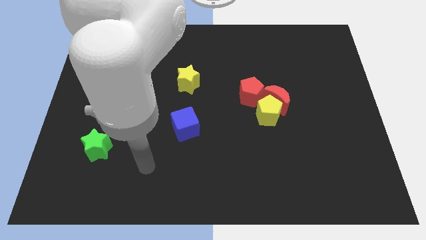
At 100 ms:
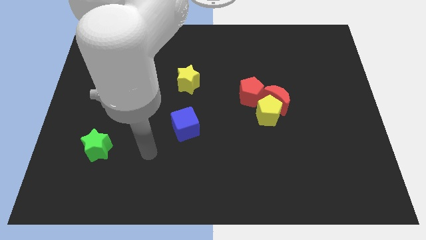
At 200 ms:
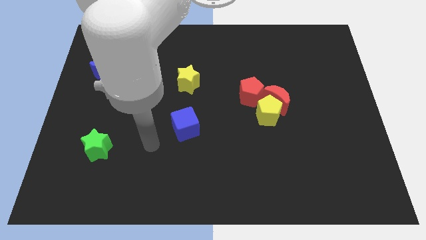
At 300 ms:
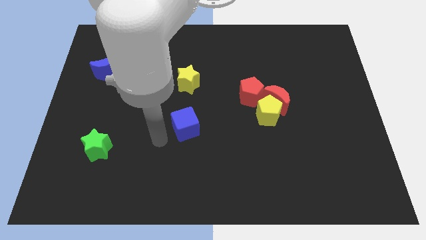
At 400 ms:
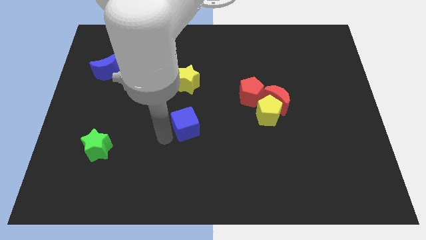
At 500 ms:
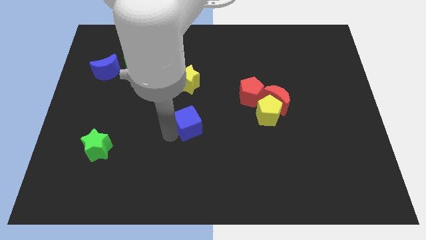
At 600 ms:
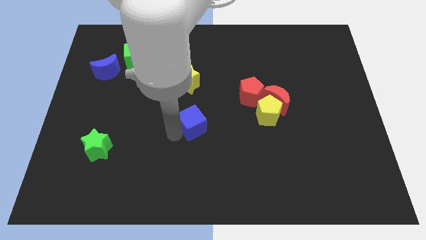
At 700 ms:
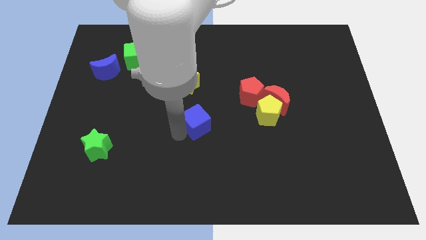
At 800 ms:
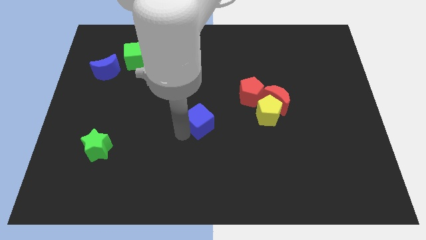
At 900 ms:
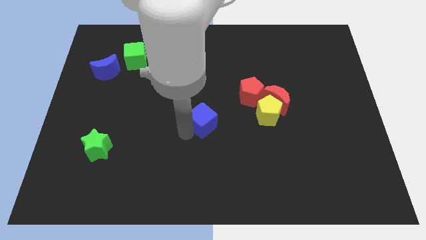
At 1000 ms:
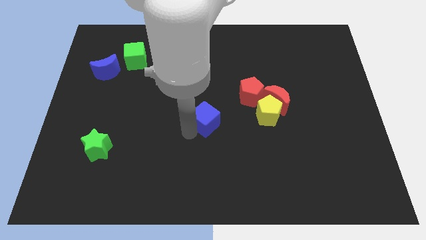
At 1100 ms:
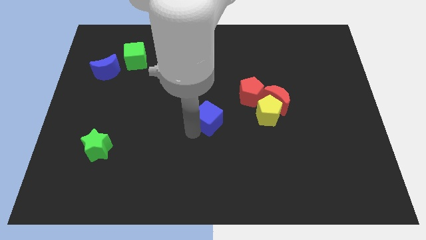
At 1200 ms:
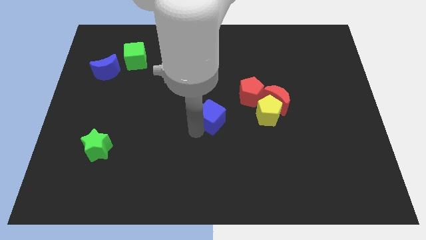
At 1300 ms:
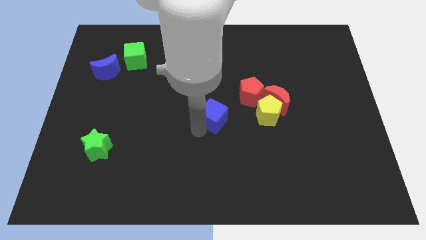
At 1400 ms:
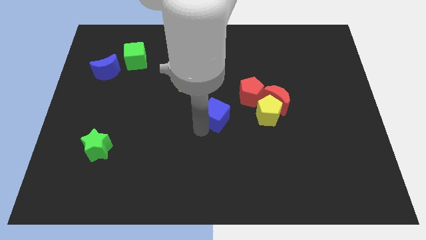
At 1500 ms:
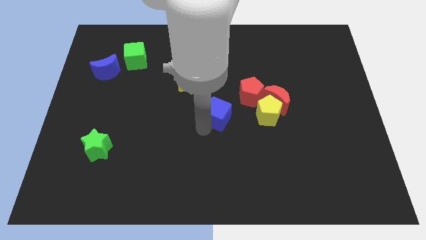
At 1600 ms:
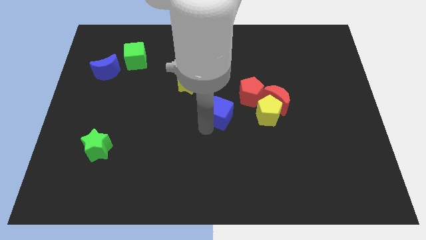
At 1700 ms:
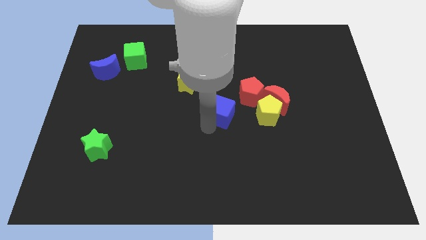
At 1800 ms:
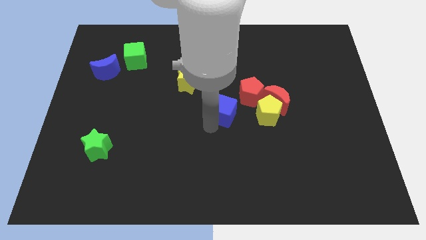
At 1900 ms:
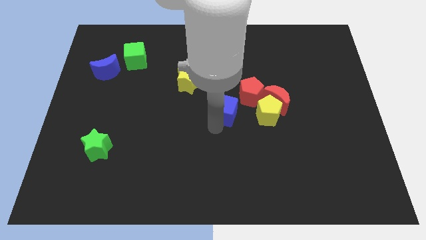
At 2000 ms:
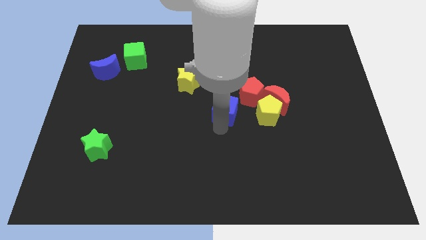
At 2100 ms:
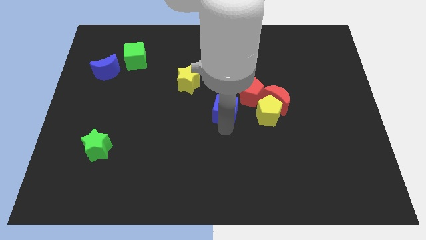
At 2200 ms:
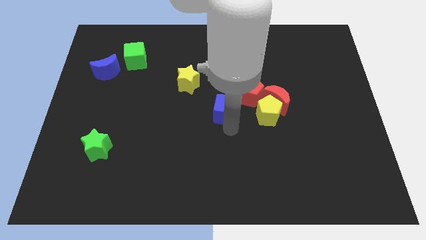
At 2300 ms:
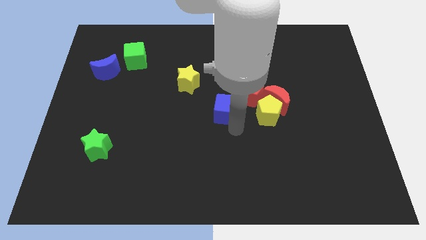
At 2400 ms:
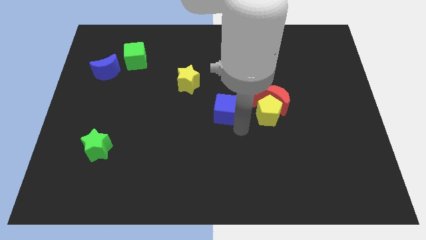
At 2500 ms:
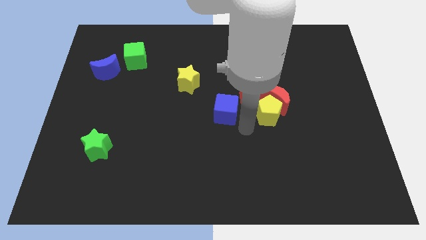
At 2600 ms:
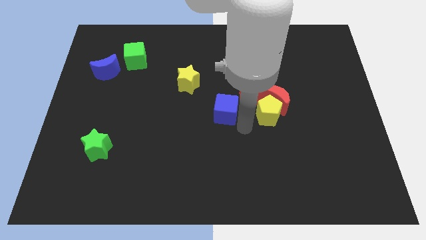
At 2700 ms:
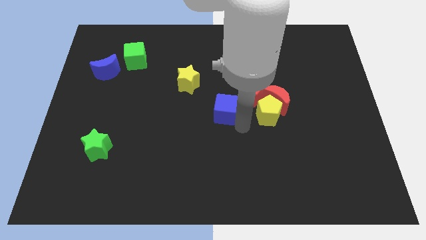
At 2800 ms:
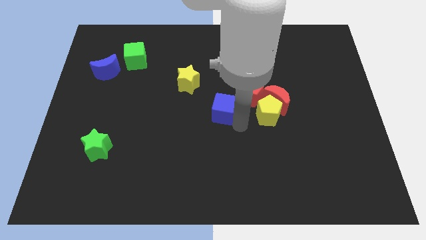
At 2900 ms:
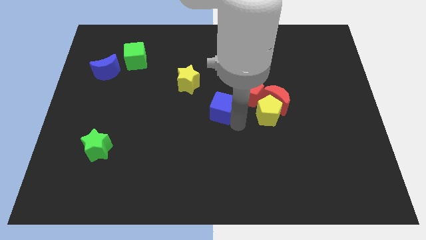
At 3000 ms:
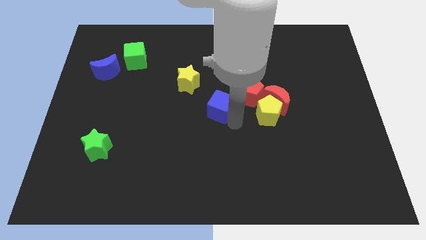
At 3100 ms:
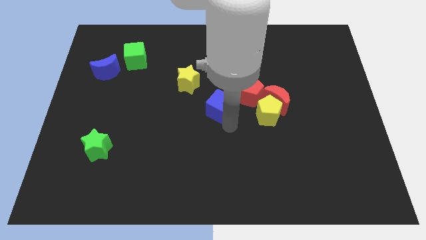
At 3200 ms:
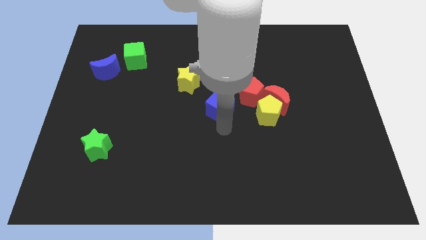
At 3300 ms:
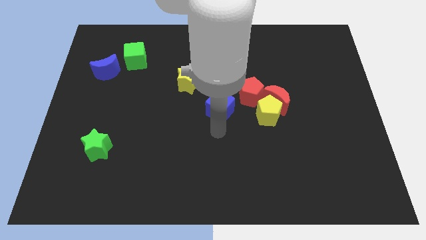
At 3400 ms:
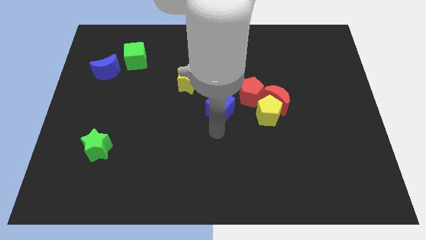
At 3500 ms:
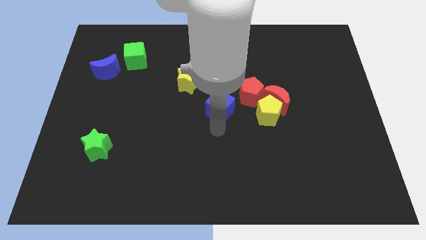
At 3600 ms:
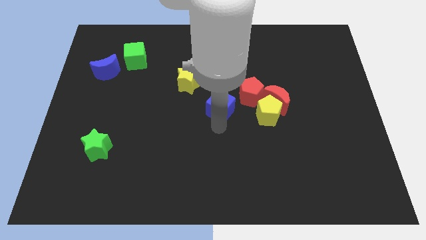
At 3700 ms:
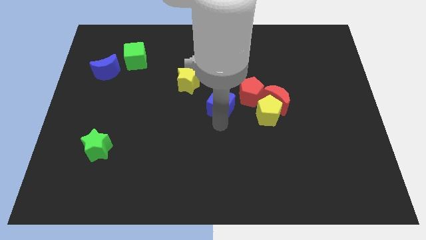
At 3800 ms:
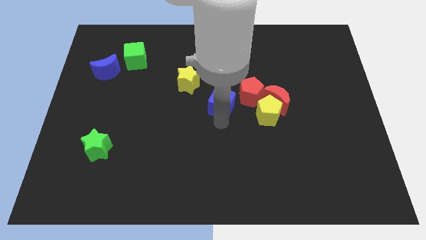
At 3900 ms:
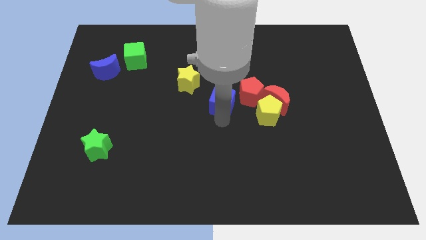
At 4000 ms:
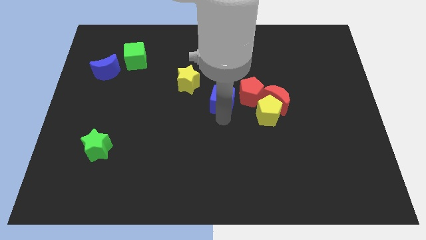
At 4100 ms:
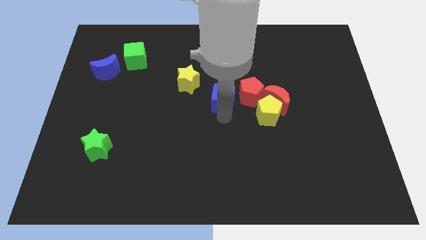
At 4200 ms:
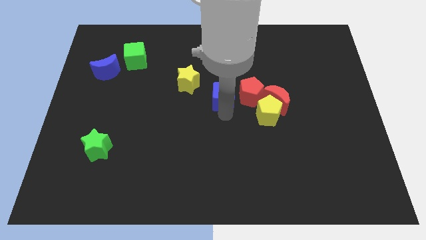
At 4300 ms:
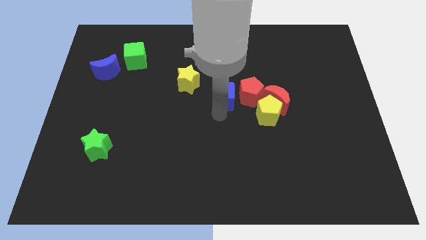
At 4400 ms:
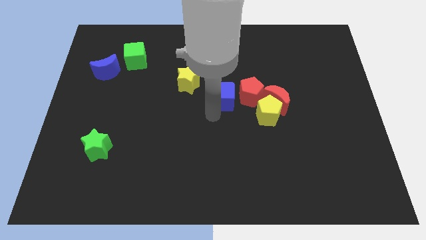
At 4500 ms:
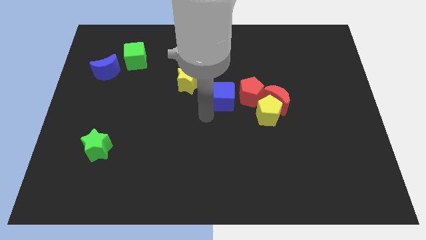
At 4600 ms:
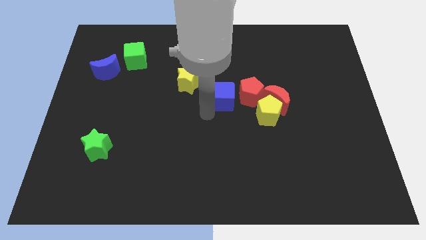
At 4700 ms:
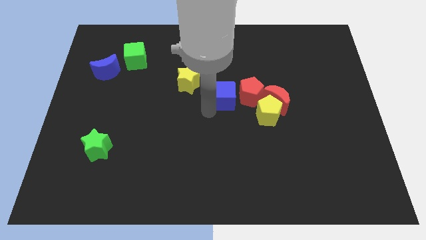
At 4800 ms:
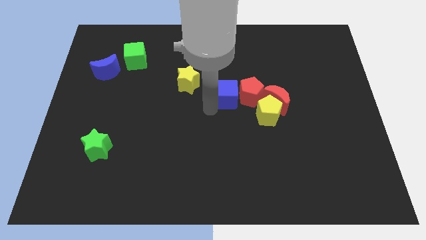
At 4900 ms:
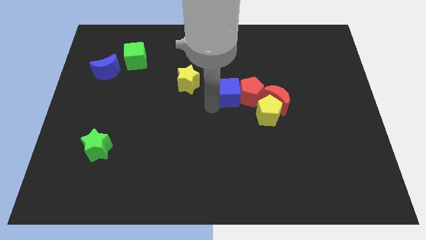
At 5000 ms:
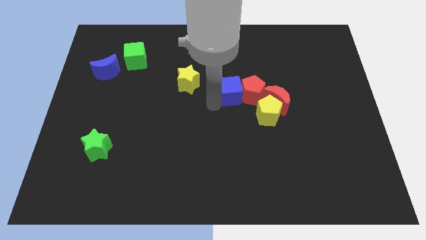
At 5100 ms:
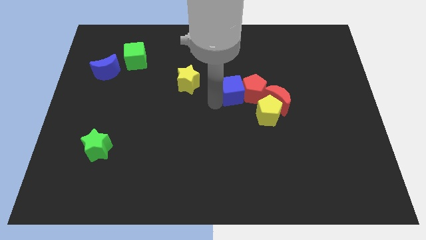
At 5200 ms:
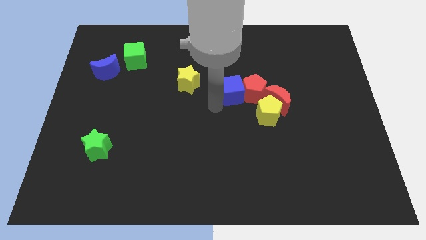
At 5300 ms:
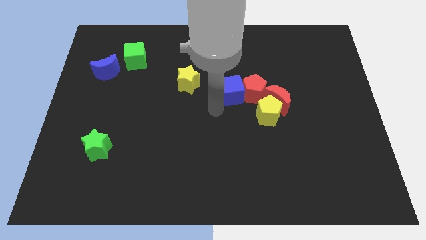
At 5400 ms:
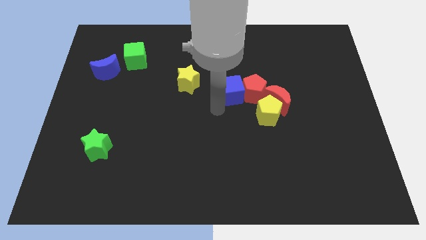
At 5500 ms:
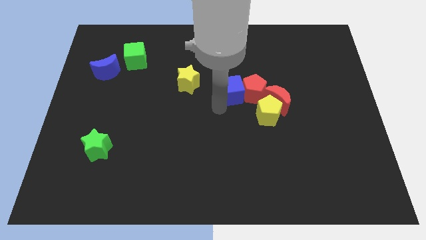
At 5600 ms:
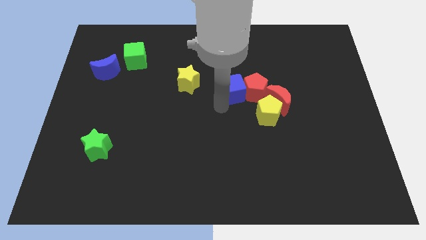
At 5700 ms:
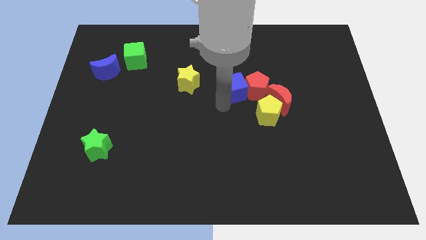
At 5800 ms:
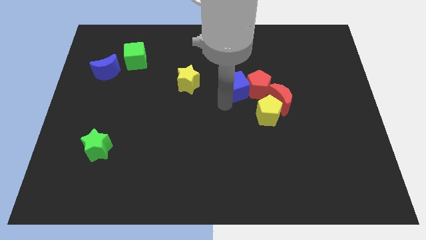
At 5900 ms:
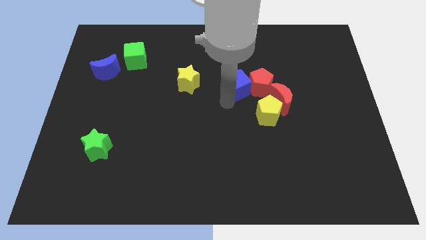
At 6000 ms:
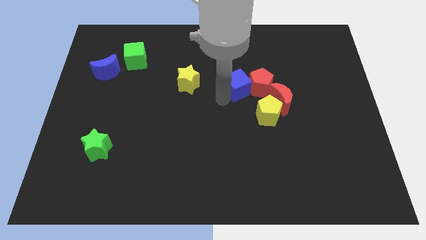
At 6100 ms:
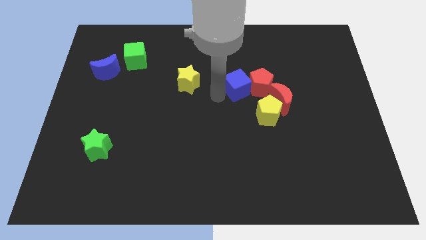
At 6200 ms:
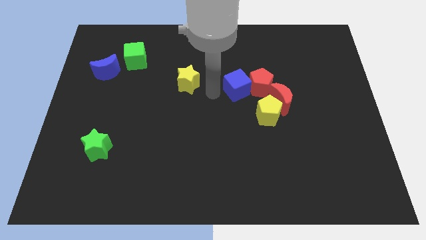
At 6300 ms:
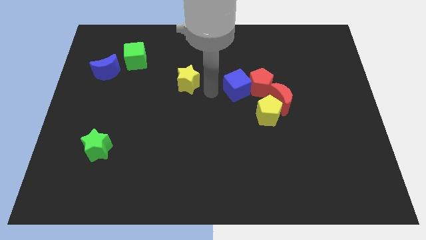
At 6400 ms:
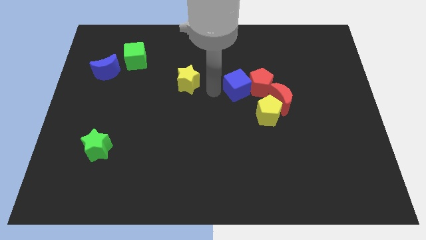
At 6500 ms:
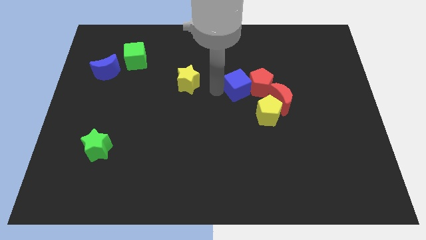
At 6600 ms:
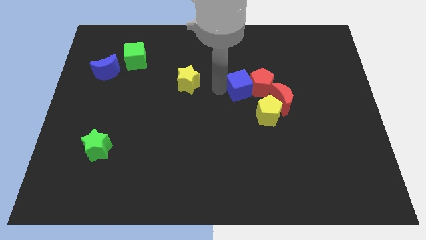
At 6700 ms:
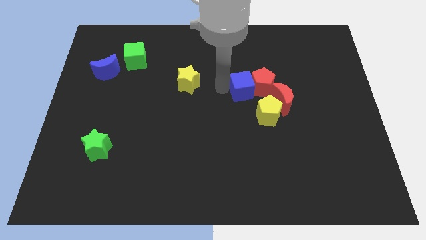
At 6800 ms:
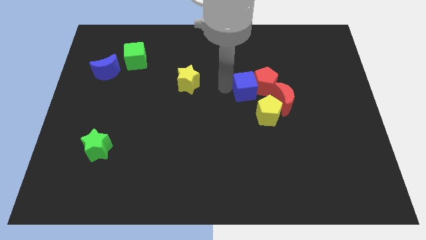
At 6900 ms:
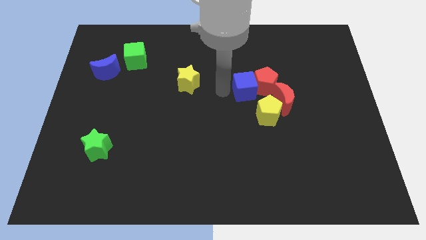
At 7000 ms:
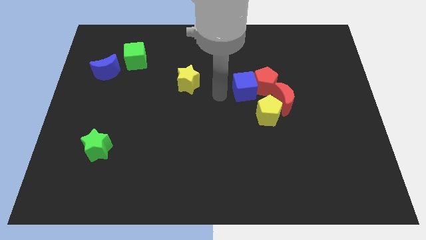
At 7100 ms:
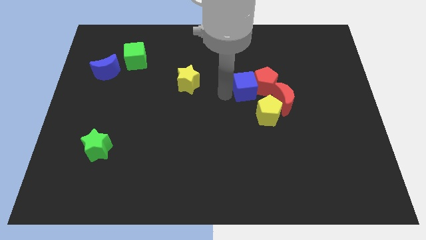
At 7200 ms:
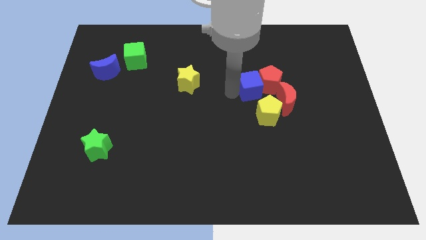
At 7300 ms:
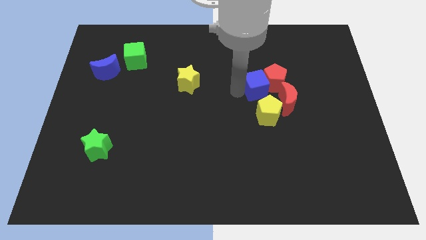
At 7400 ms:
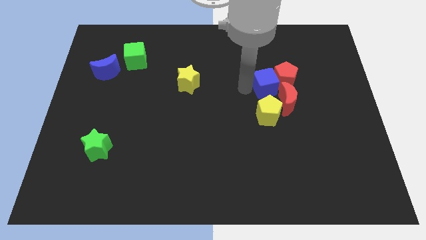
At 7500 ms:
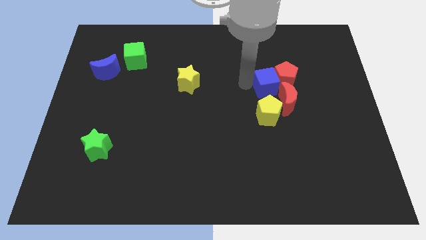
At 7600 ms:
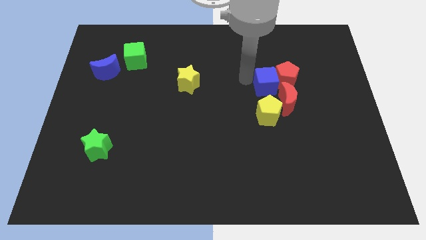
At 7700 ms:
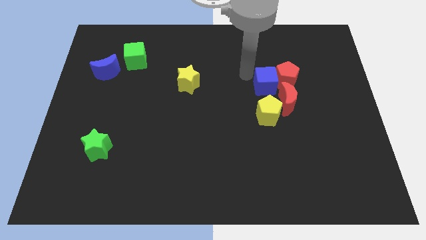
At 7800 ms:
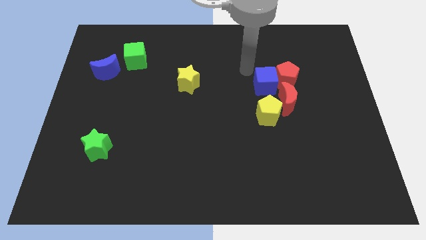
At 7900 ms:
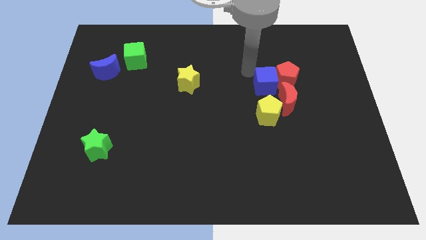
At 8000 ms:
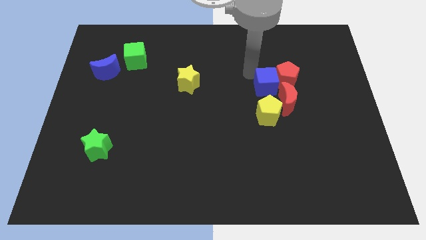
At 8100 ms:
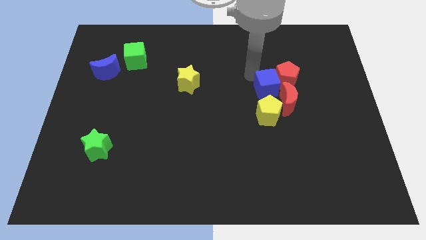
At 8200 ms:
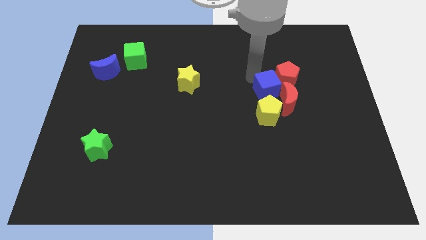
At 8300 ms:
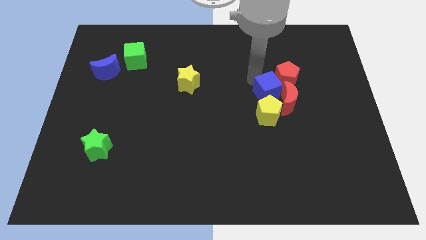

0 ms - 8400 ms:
put the blue cube towards the red moon
